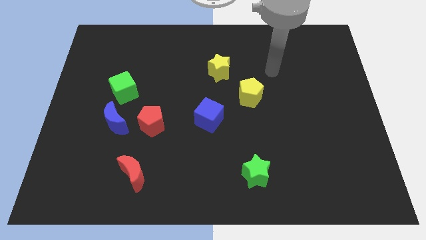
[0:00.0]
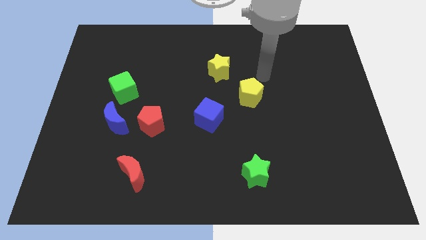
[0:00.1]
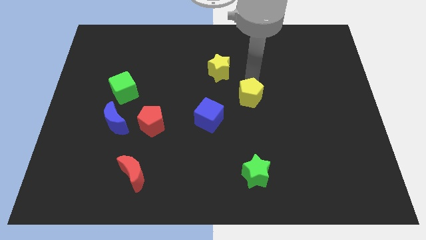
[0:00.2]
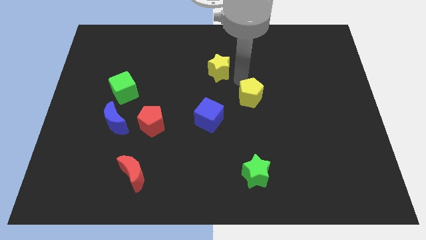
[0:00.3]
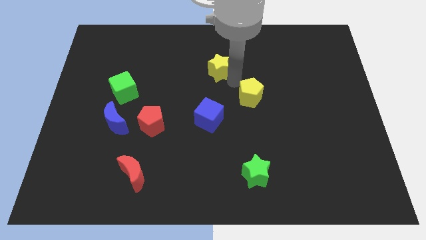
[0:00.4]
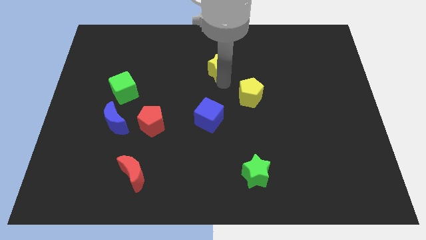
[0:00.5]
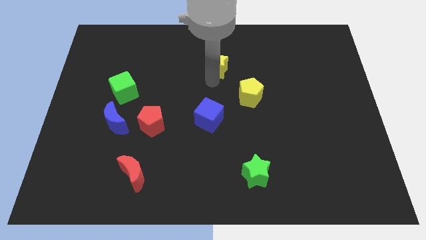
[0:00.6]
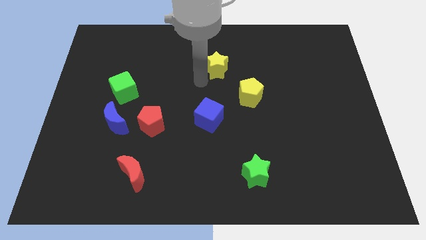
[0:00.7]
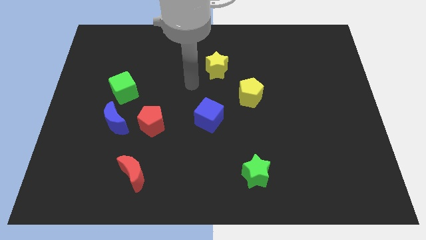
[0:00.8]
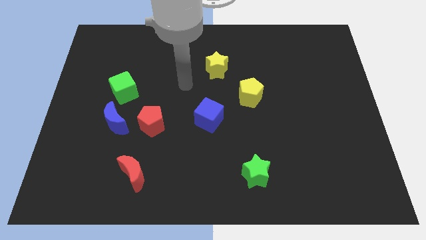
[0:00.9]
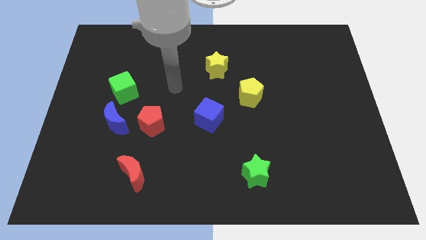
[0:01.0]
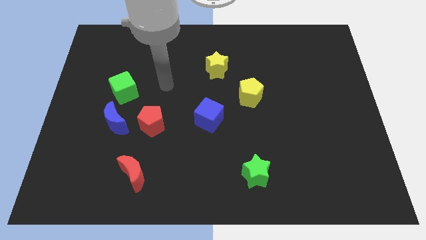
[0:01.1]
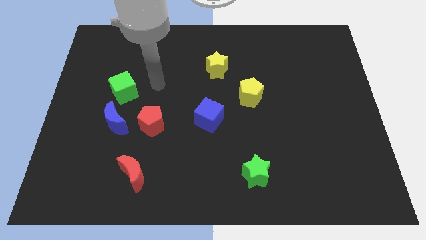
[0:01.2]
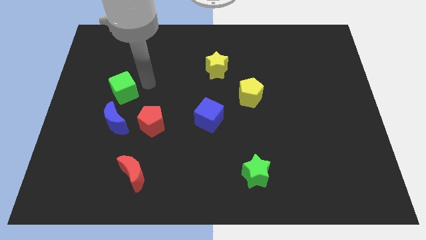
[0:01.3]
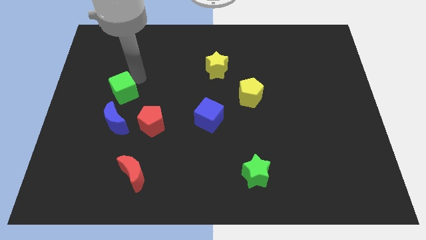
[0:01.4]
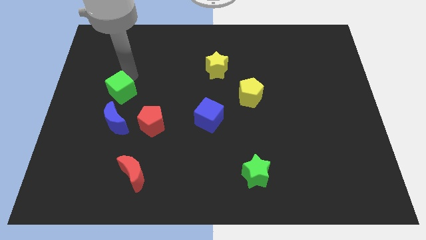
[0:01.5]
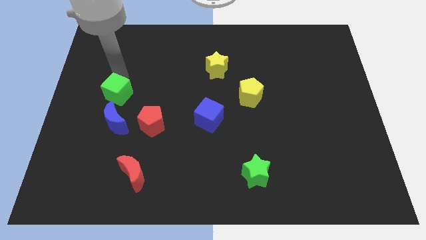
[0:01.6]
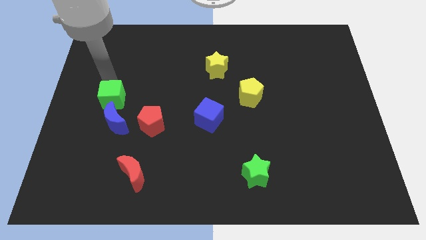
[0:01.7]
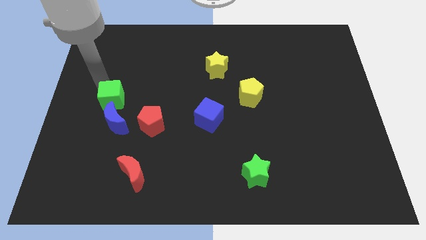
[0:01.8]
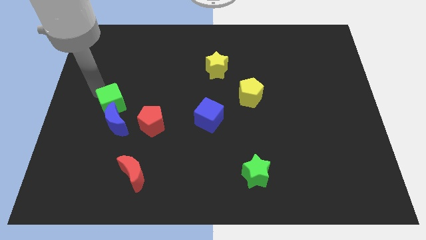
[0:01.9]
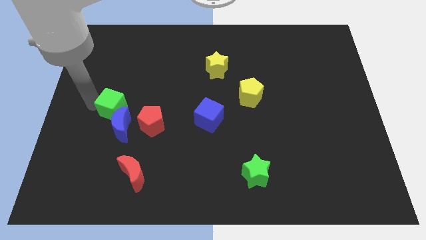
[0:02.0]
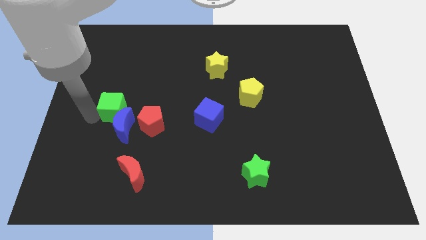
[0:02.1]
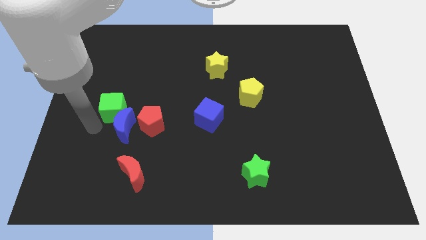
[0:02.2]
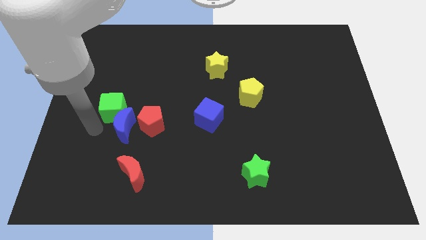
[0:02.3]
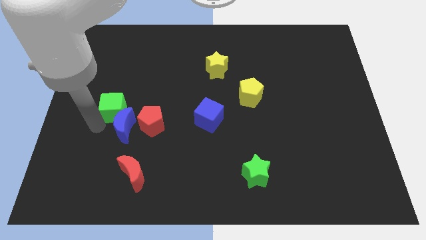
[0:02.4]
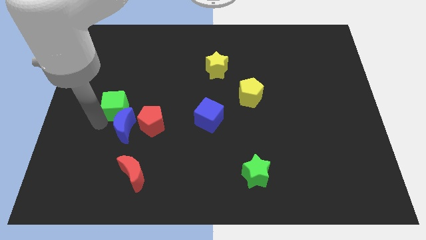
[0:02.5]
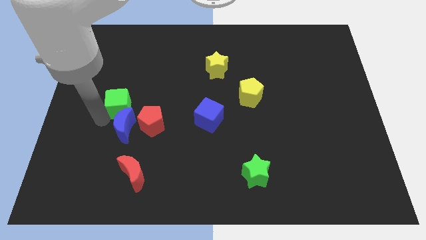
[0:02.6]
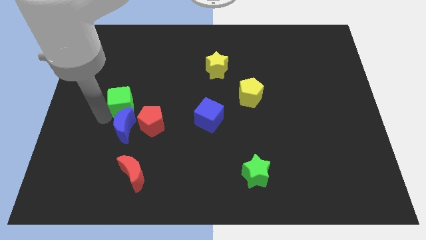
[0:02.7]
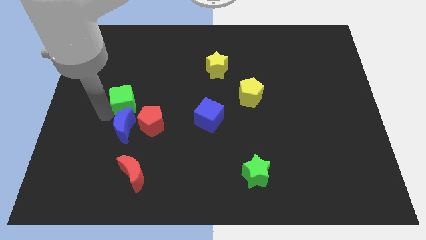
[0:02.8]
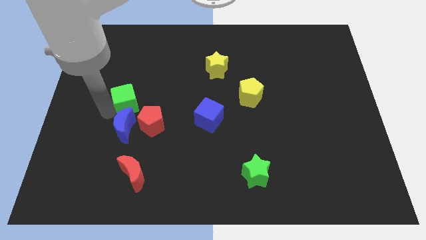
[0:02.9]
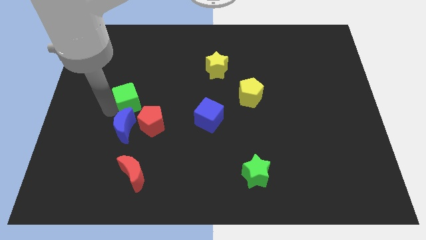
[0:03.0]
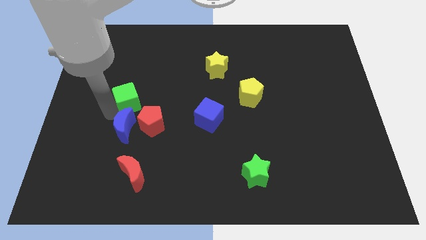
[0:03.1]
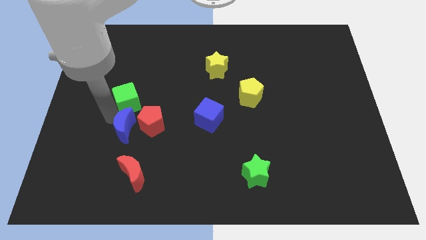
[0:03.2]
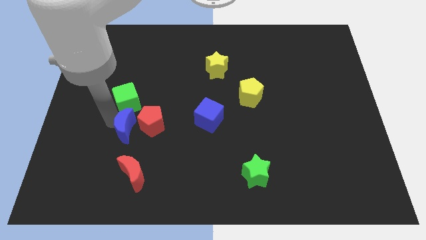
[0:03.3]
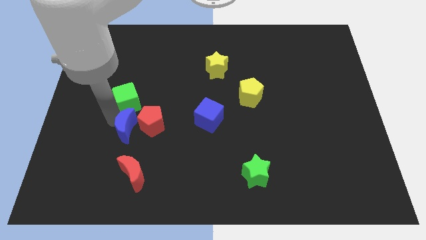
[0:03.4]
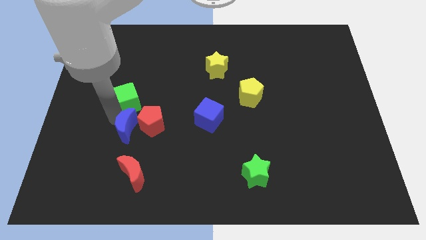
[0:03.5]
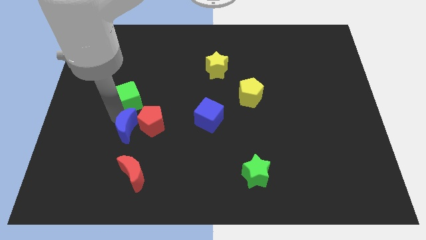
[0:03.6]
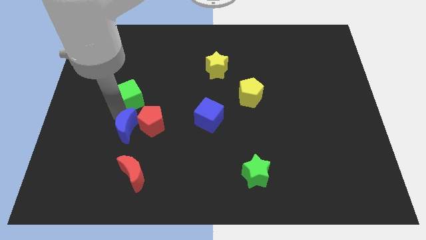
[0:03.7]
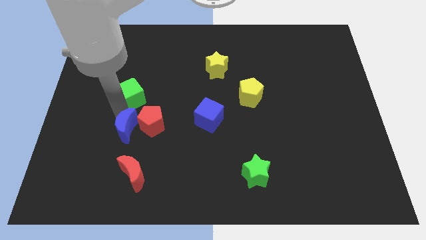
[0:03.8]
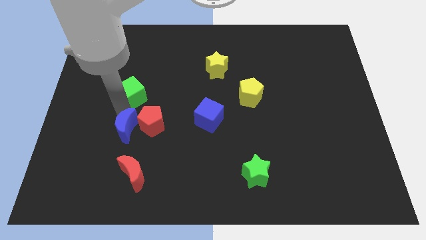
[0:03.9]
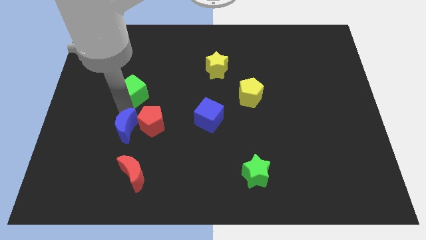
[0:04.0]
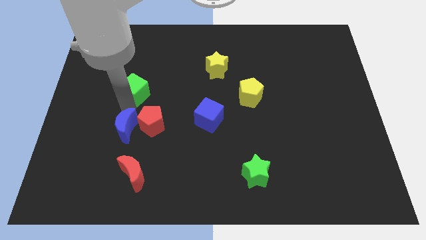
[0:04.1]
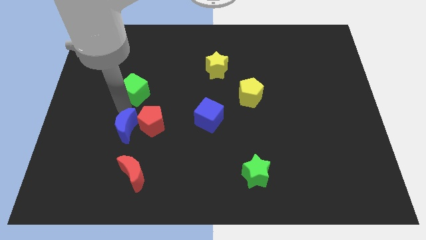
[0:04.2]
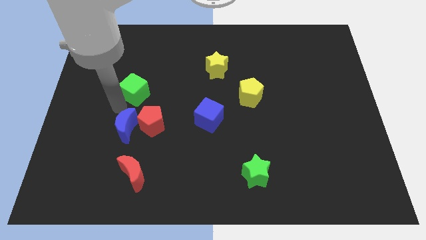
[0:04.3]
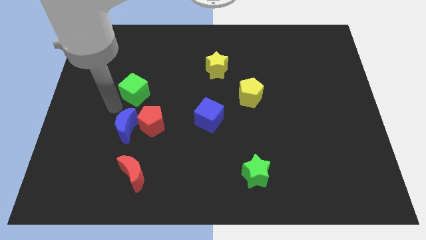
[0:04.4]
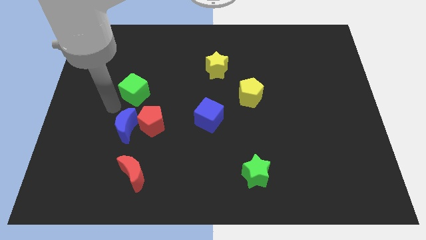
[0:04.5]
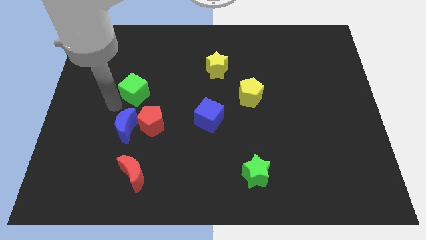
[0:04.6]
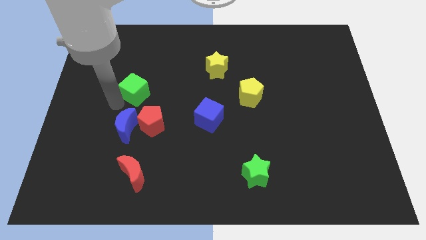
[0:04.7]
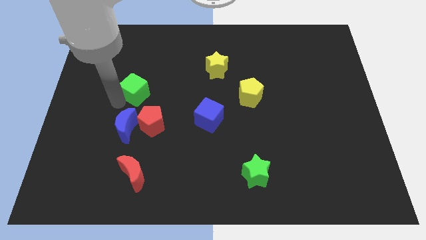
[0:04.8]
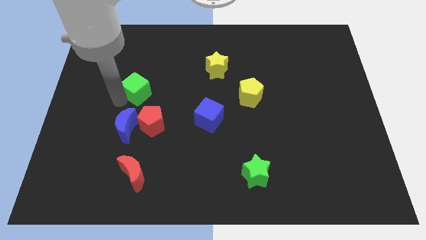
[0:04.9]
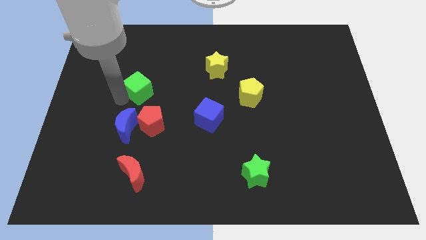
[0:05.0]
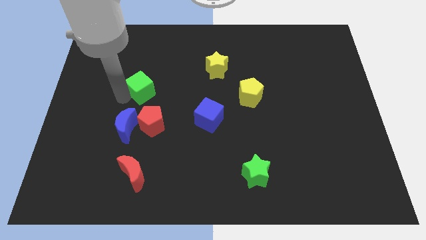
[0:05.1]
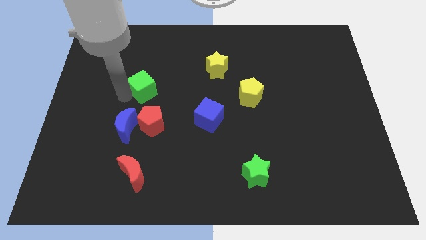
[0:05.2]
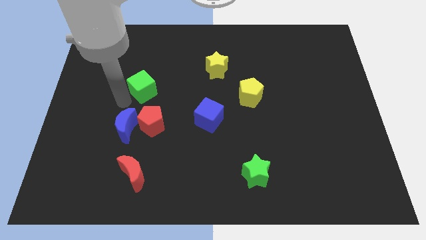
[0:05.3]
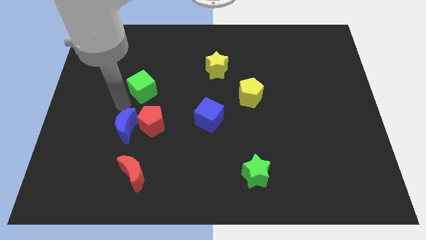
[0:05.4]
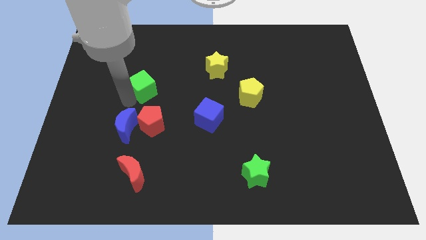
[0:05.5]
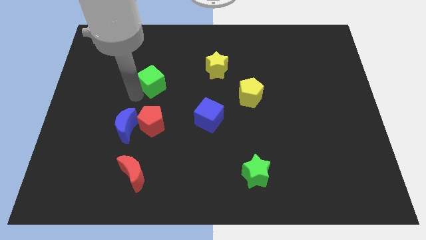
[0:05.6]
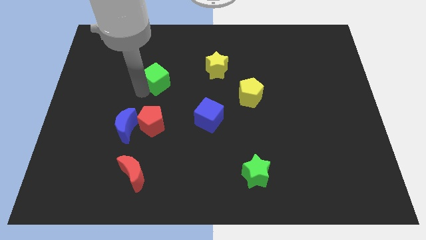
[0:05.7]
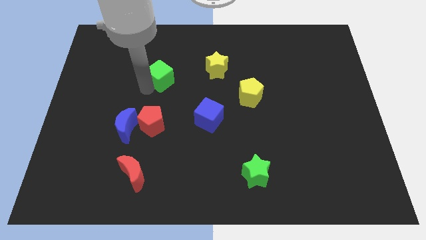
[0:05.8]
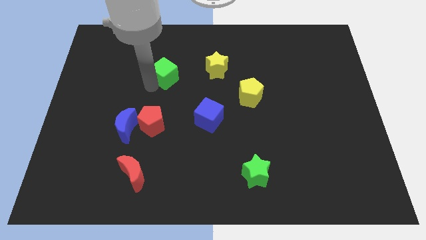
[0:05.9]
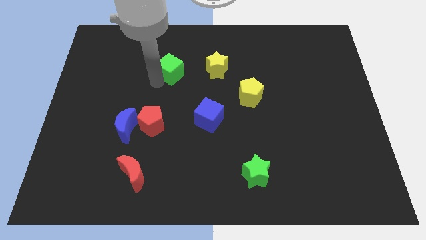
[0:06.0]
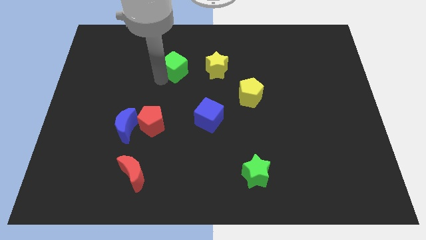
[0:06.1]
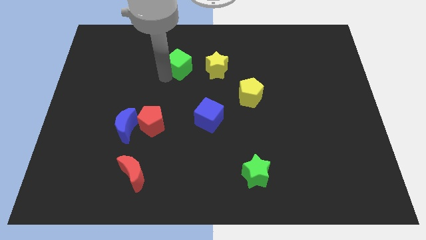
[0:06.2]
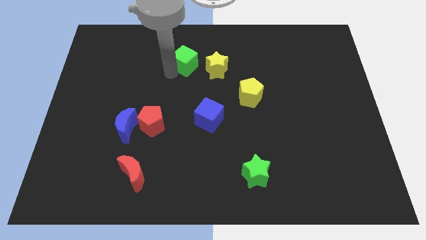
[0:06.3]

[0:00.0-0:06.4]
move the green cube to the top left of the yellow star

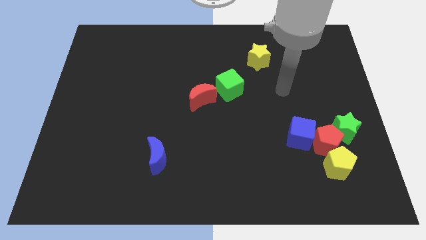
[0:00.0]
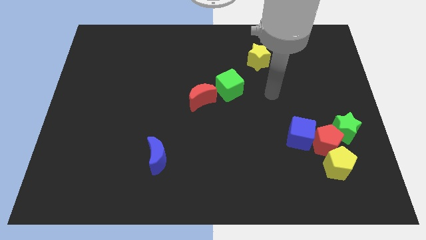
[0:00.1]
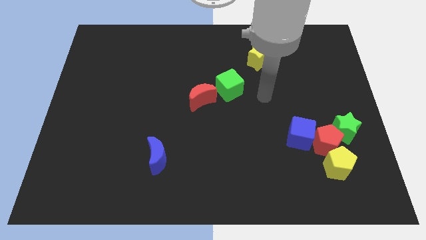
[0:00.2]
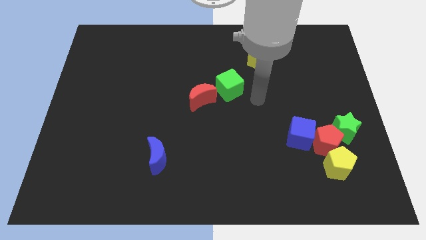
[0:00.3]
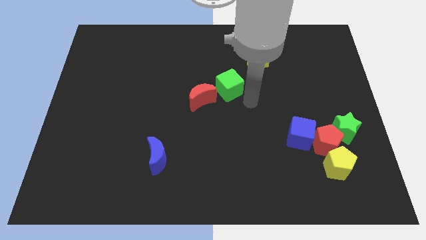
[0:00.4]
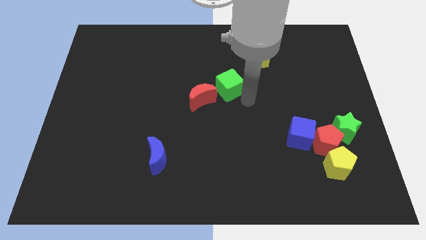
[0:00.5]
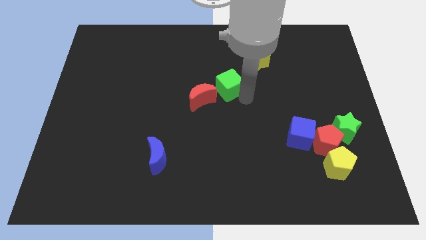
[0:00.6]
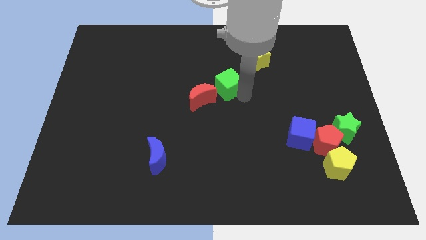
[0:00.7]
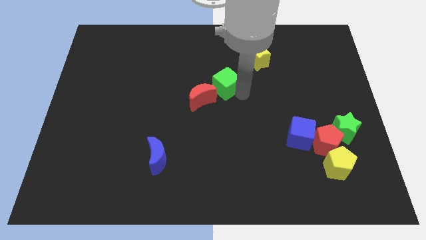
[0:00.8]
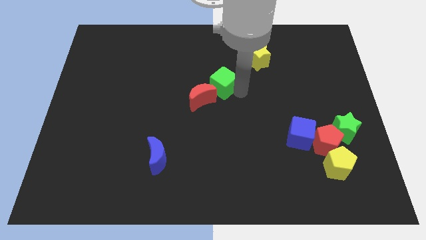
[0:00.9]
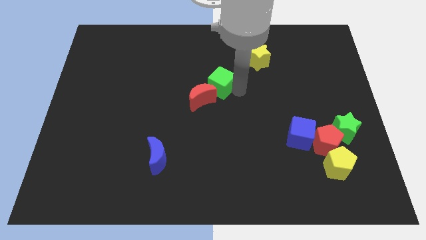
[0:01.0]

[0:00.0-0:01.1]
put the green cube to the top of the red moon
